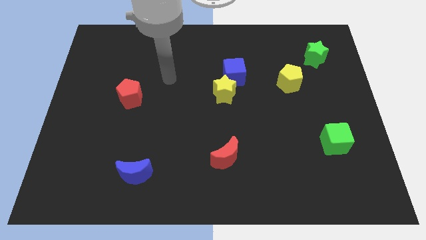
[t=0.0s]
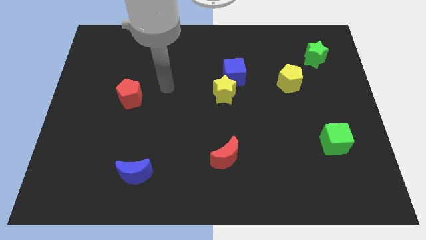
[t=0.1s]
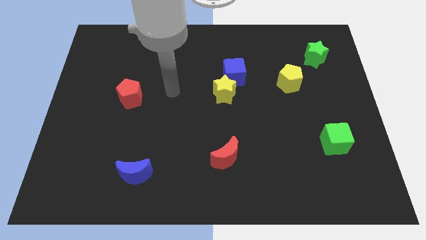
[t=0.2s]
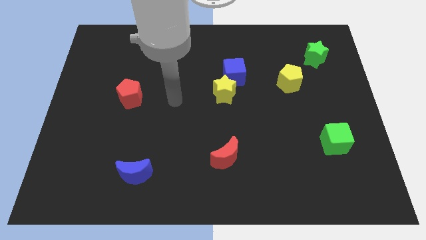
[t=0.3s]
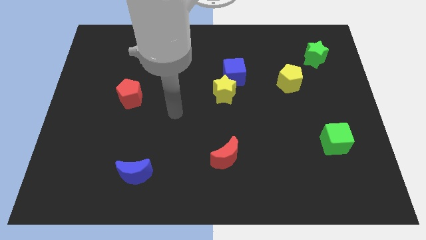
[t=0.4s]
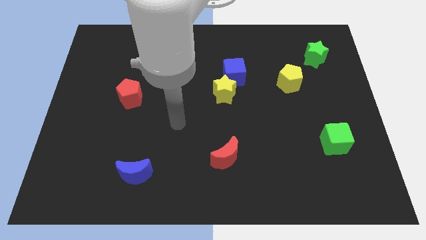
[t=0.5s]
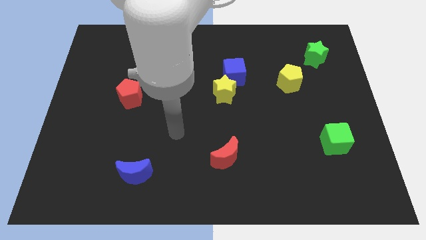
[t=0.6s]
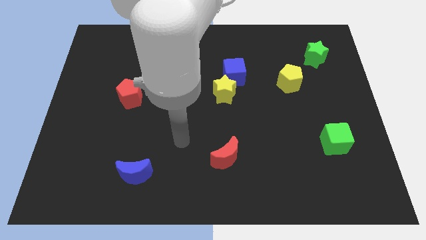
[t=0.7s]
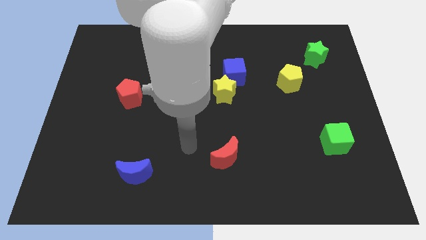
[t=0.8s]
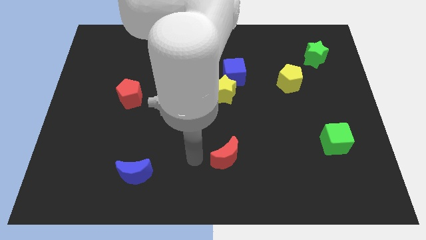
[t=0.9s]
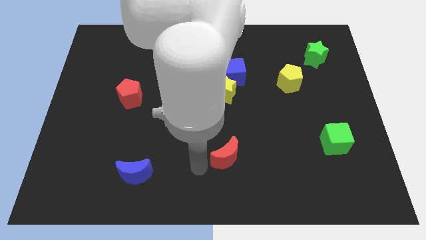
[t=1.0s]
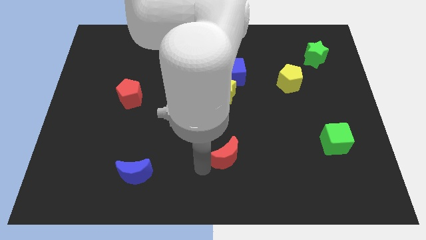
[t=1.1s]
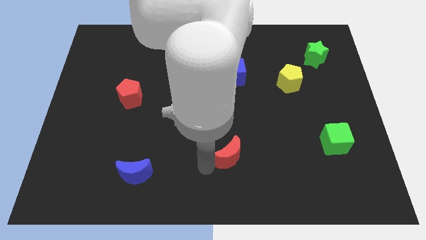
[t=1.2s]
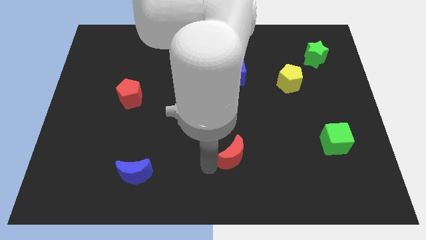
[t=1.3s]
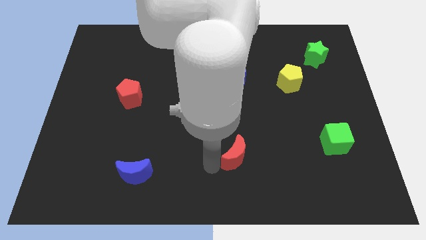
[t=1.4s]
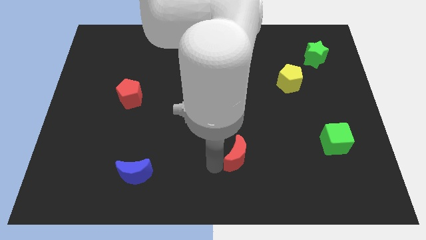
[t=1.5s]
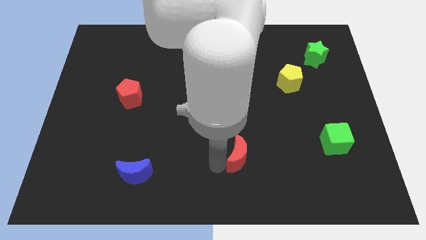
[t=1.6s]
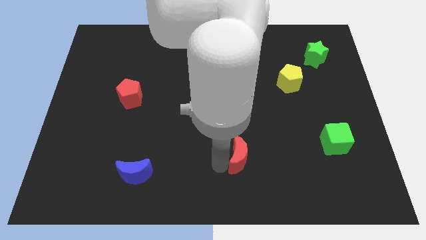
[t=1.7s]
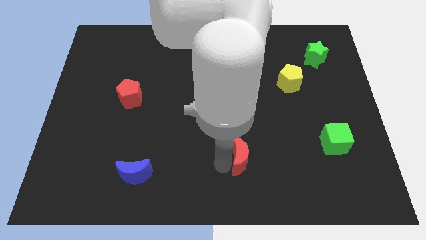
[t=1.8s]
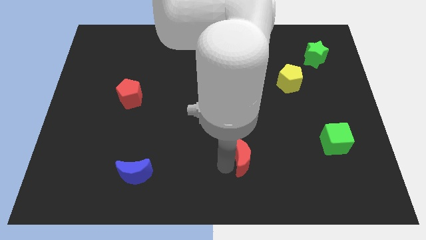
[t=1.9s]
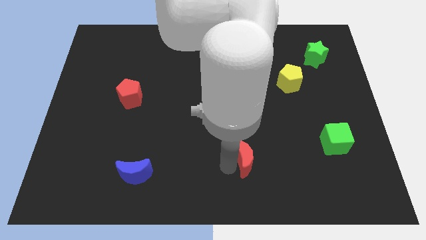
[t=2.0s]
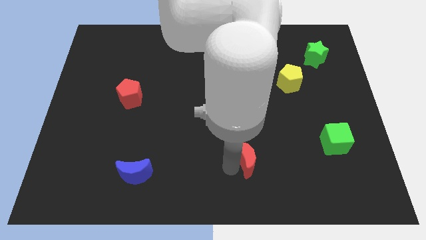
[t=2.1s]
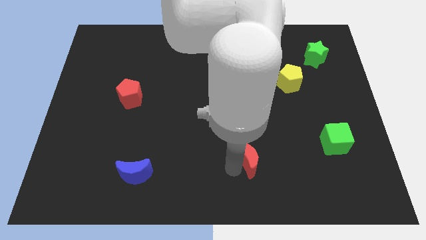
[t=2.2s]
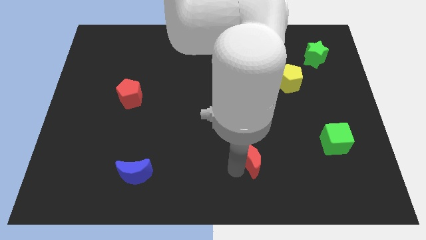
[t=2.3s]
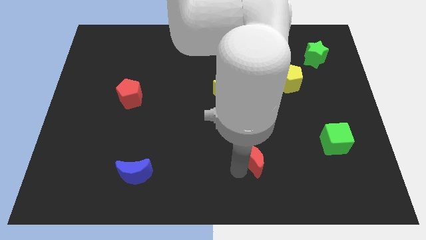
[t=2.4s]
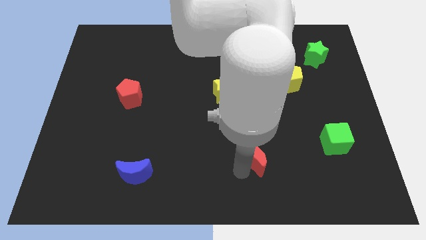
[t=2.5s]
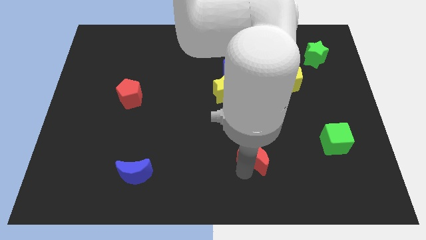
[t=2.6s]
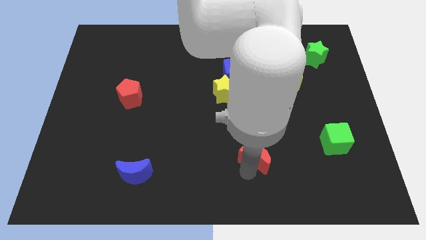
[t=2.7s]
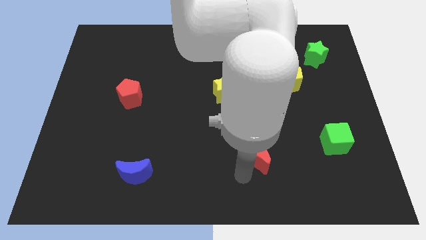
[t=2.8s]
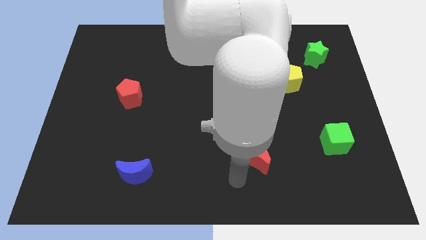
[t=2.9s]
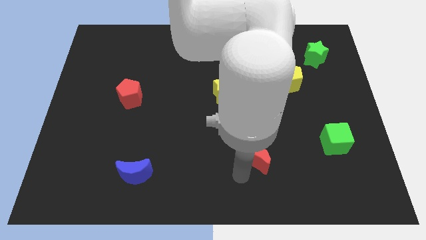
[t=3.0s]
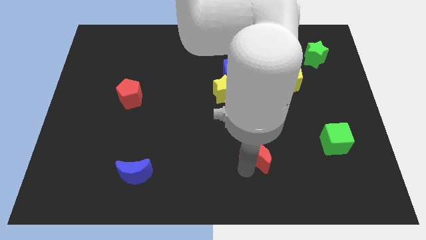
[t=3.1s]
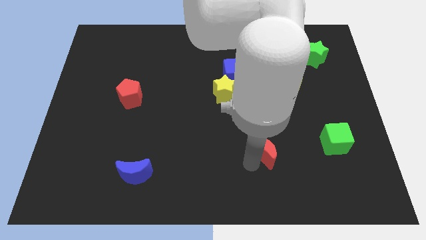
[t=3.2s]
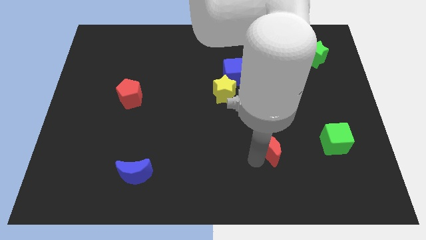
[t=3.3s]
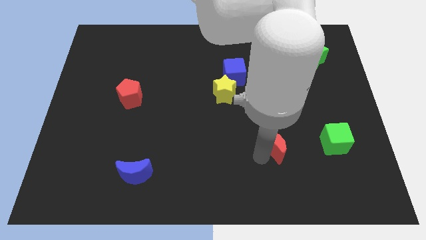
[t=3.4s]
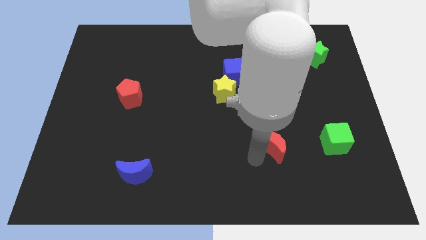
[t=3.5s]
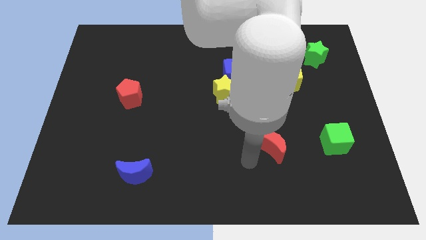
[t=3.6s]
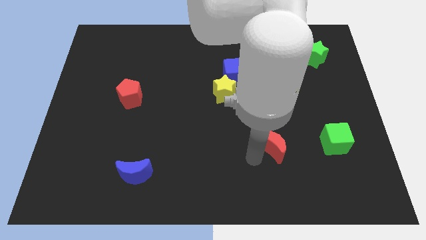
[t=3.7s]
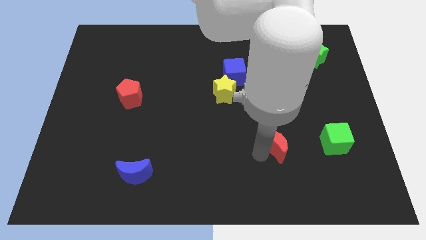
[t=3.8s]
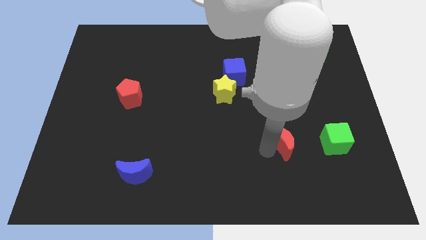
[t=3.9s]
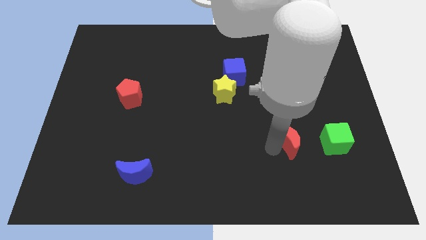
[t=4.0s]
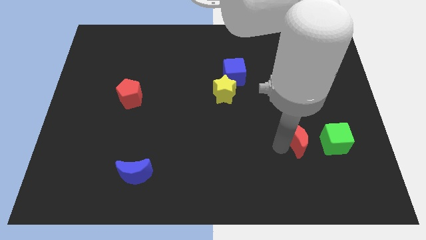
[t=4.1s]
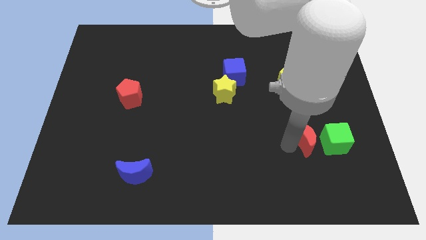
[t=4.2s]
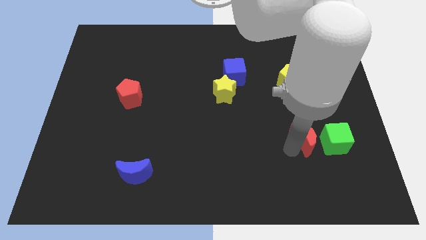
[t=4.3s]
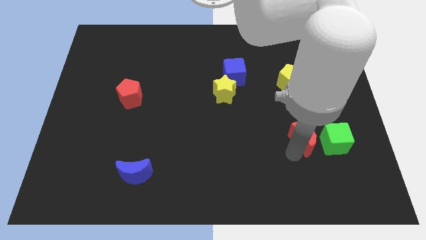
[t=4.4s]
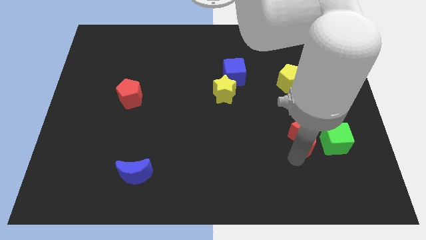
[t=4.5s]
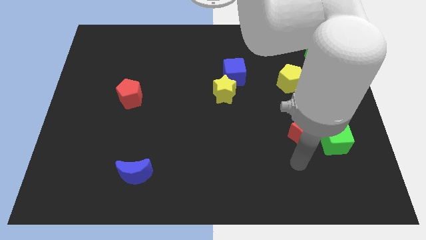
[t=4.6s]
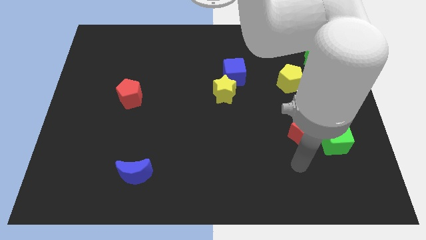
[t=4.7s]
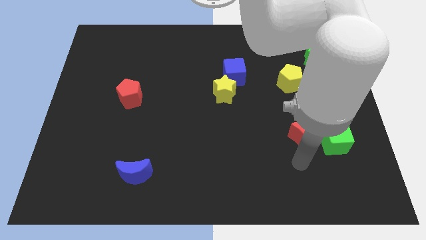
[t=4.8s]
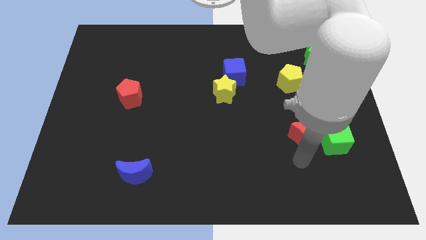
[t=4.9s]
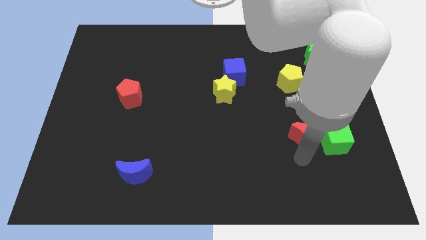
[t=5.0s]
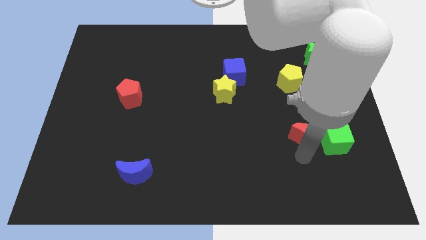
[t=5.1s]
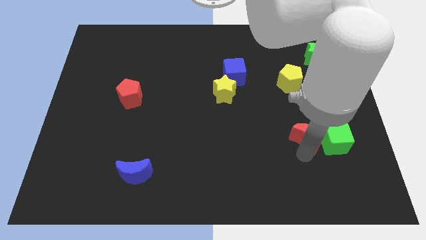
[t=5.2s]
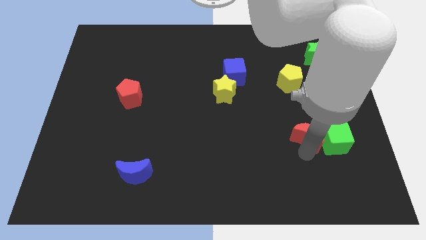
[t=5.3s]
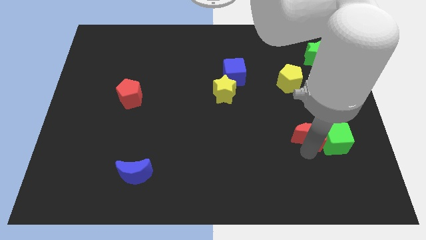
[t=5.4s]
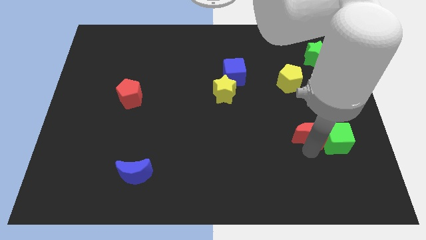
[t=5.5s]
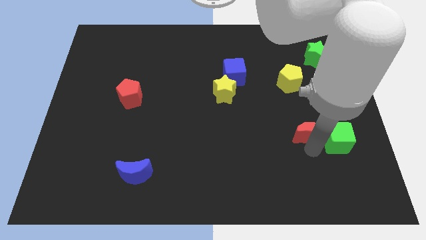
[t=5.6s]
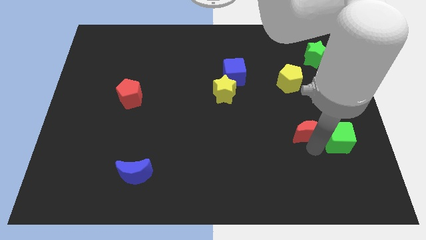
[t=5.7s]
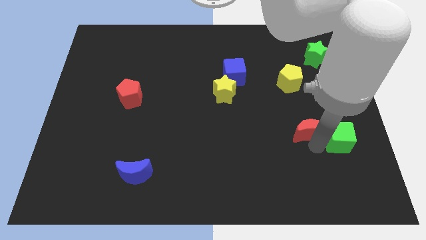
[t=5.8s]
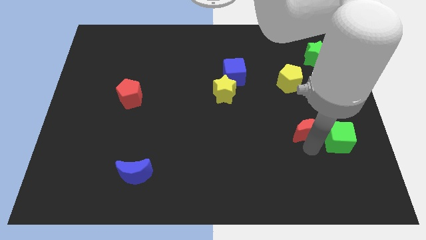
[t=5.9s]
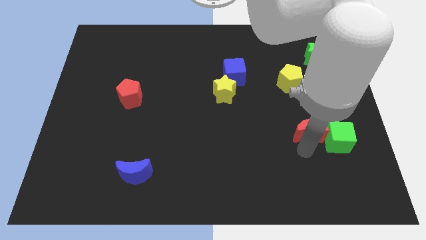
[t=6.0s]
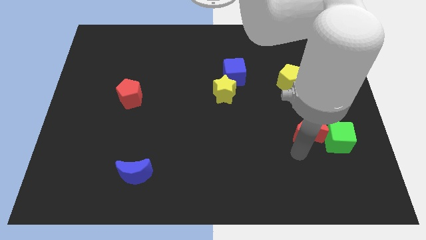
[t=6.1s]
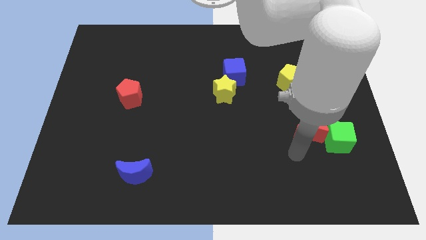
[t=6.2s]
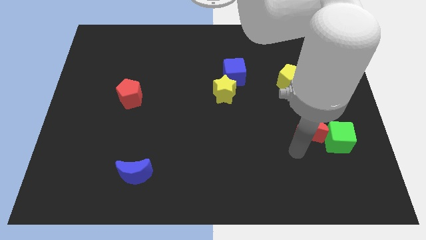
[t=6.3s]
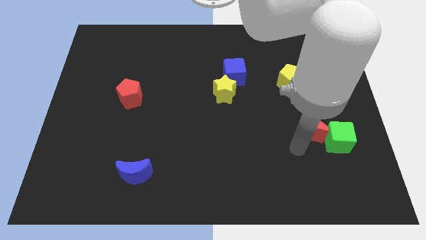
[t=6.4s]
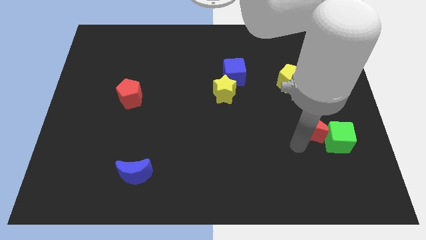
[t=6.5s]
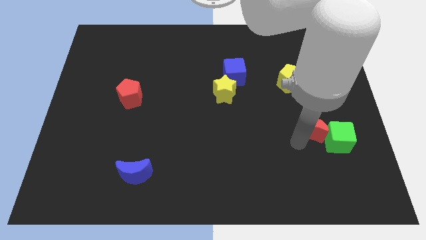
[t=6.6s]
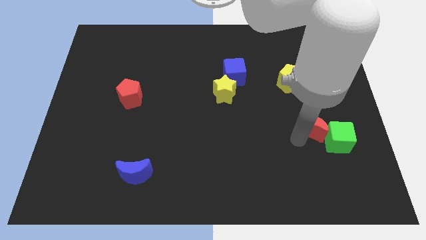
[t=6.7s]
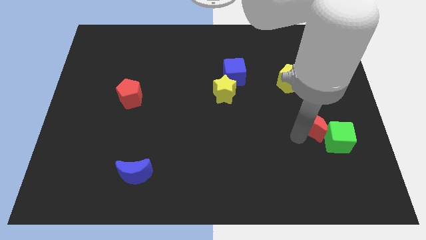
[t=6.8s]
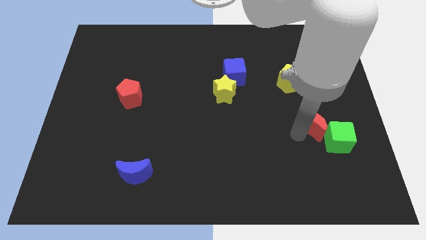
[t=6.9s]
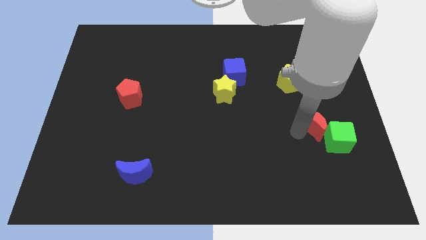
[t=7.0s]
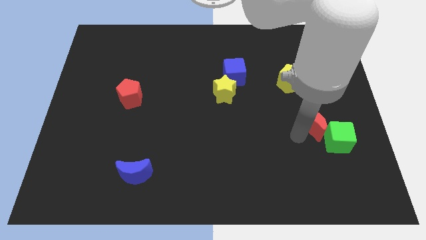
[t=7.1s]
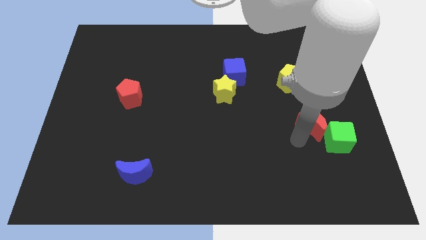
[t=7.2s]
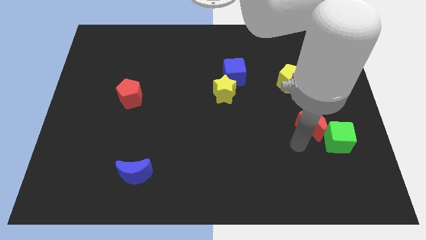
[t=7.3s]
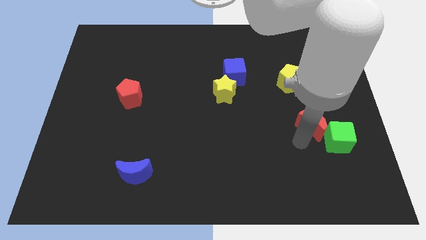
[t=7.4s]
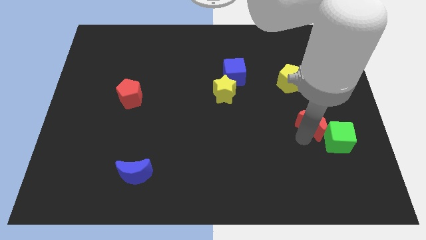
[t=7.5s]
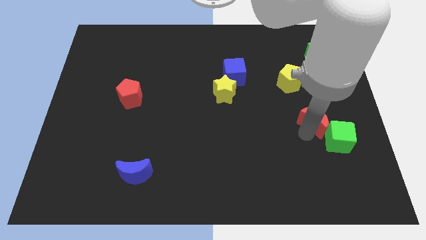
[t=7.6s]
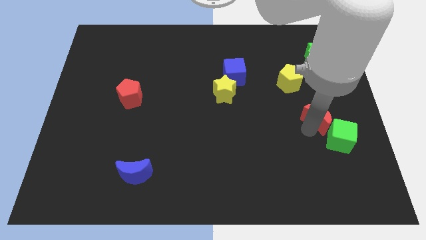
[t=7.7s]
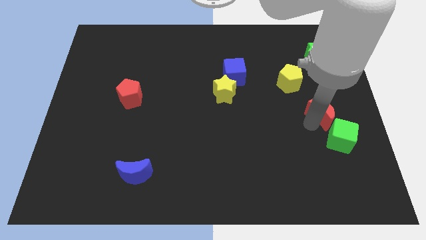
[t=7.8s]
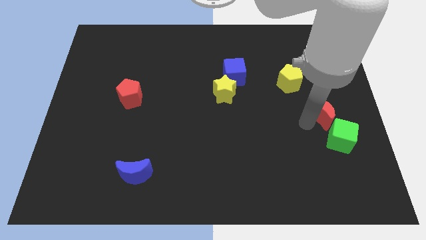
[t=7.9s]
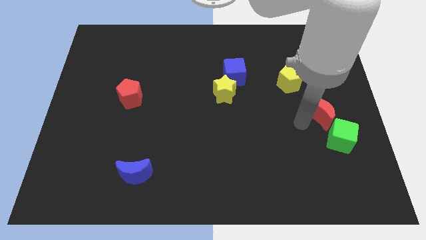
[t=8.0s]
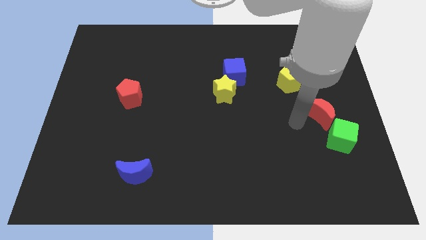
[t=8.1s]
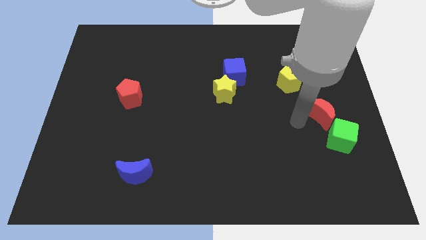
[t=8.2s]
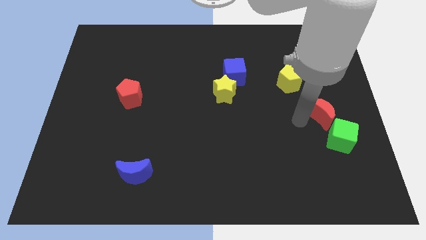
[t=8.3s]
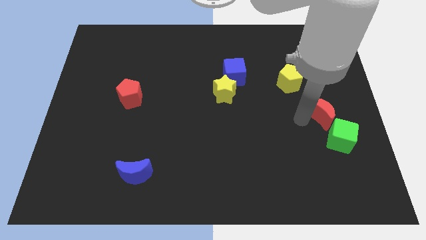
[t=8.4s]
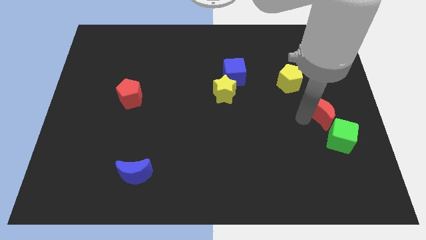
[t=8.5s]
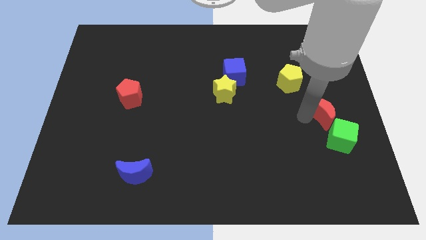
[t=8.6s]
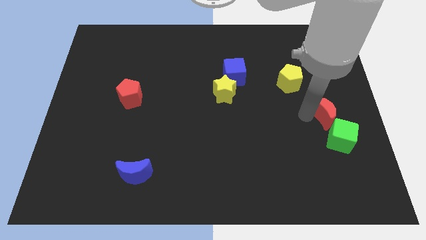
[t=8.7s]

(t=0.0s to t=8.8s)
move the red moon to the center right
